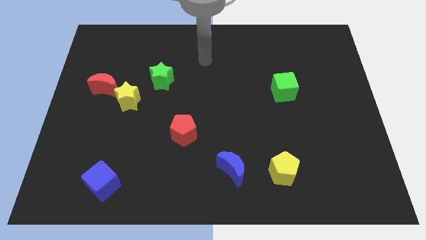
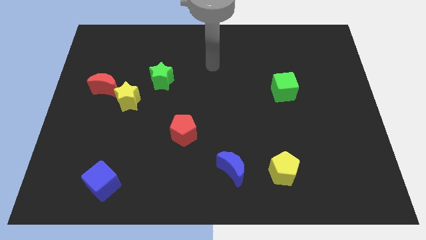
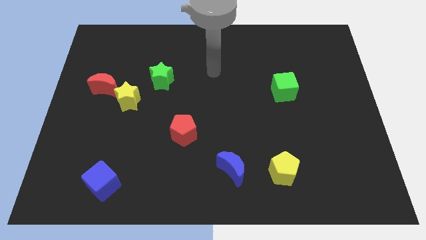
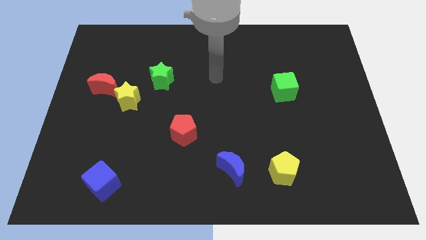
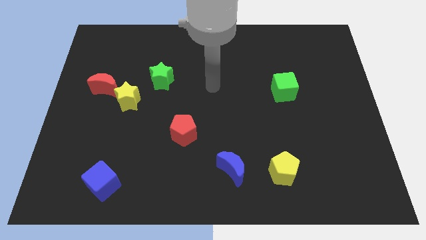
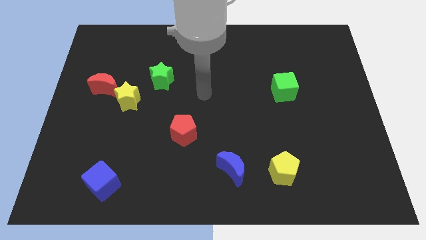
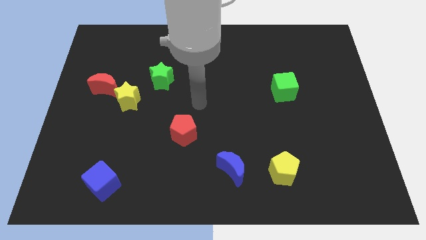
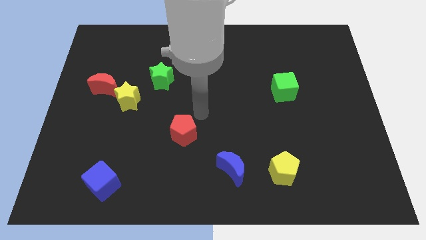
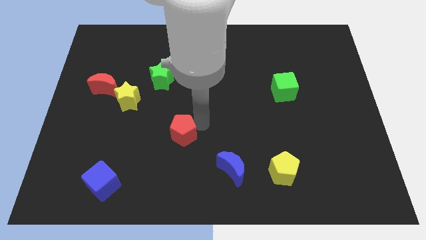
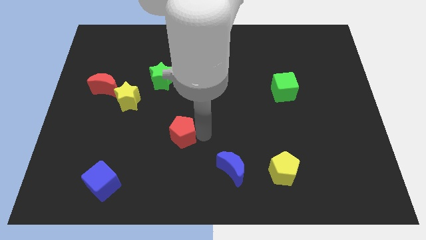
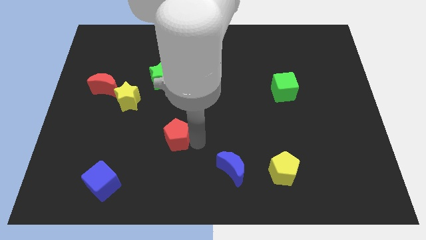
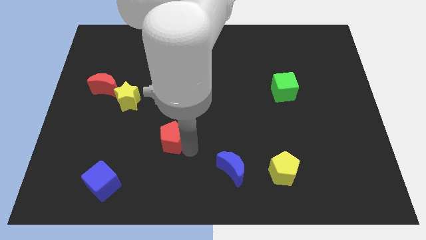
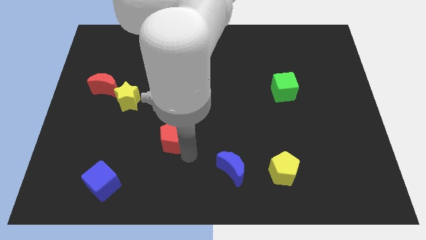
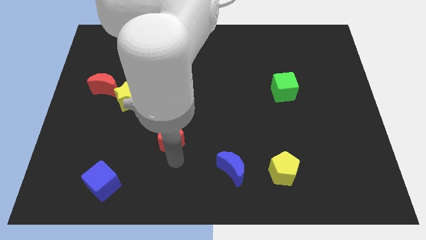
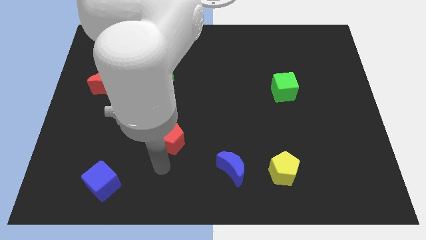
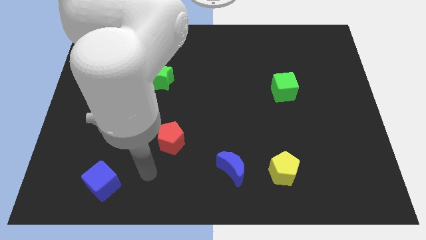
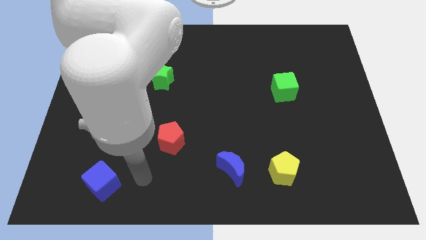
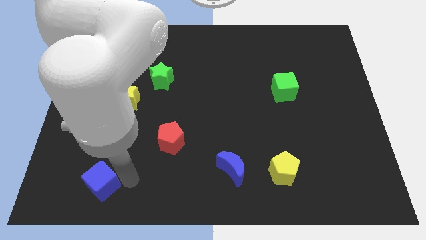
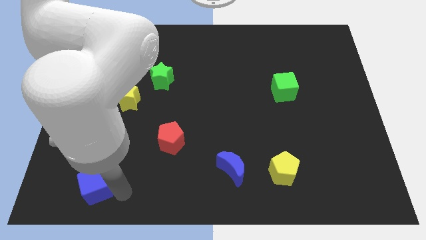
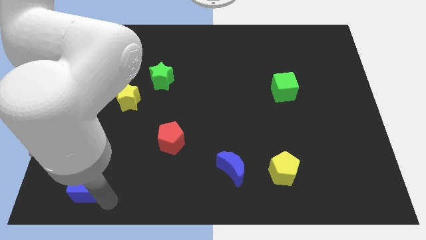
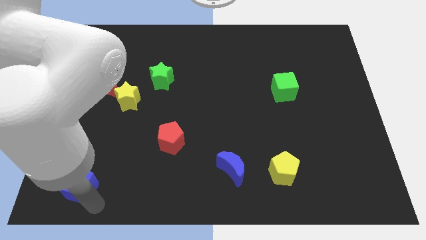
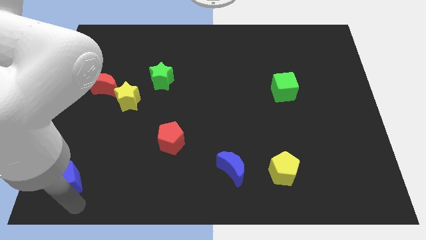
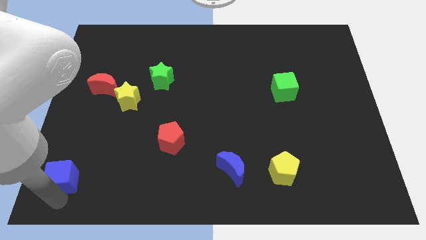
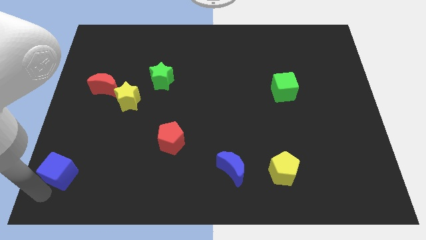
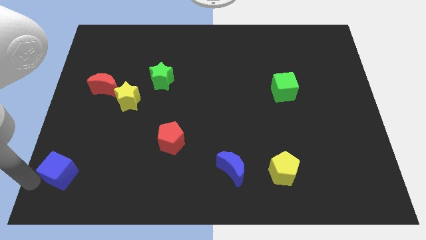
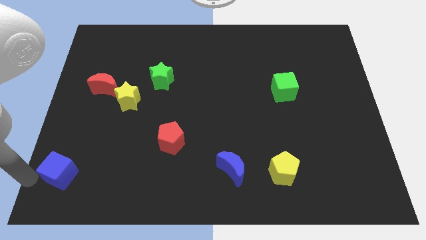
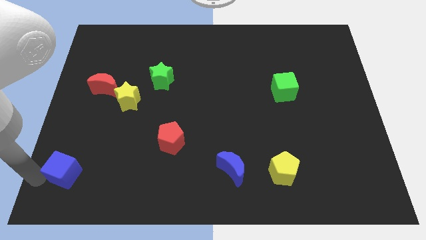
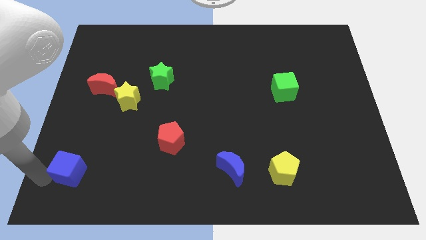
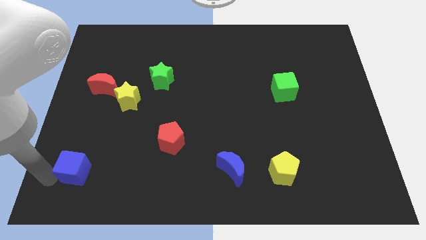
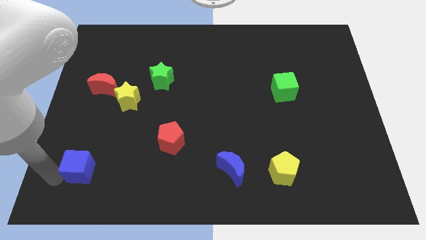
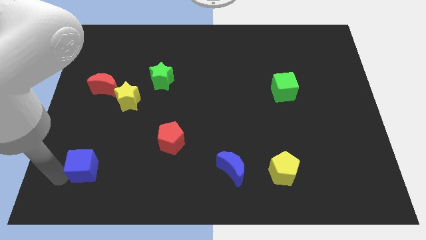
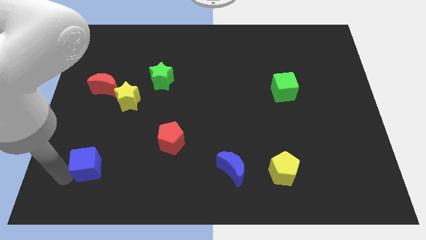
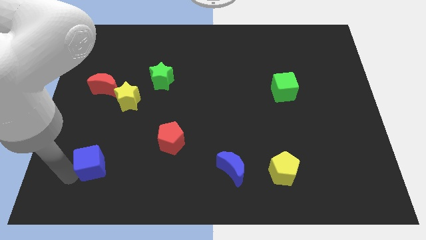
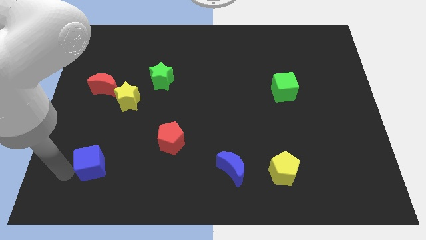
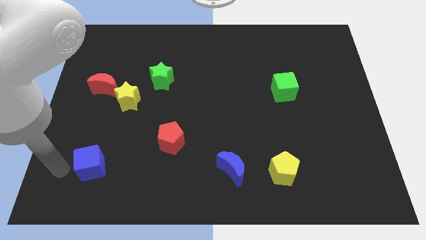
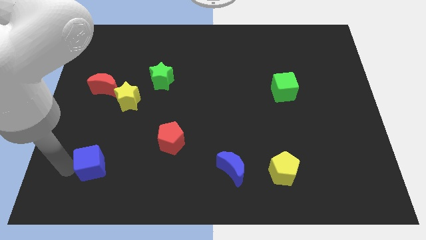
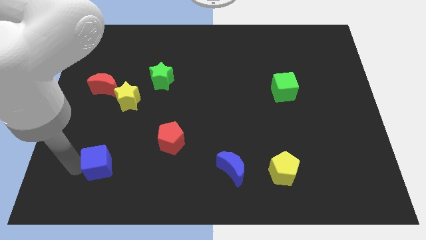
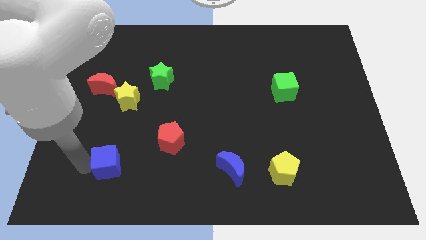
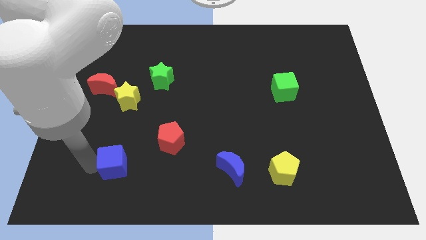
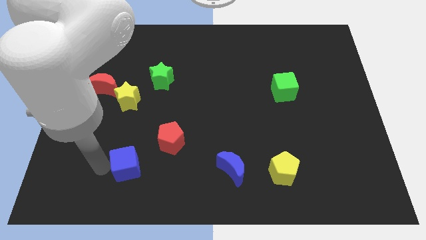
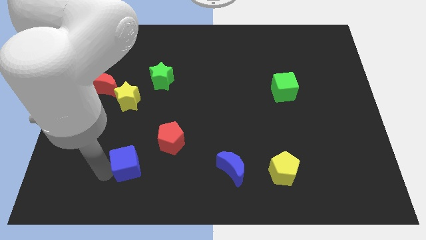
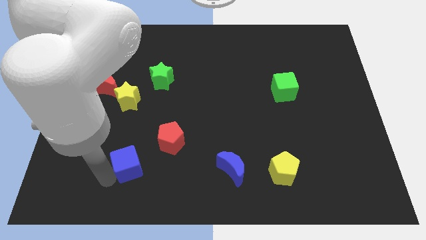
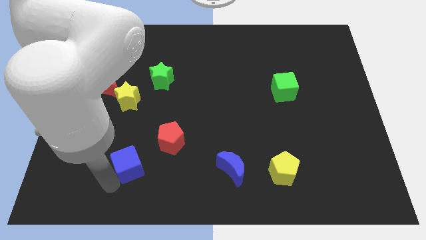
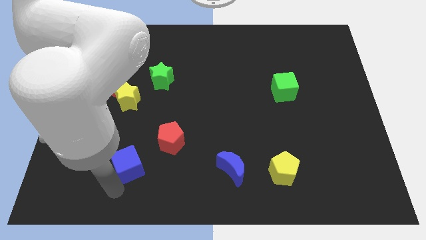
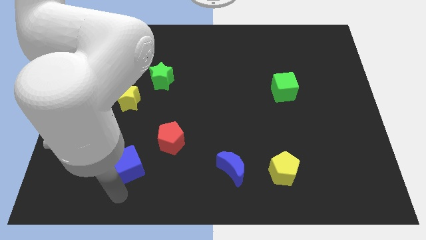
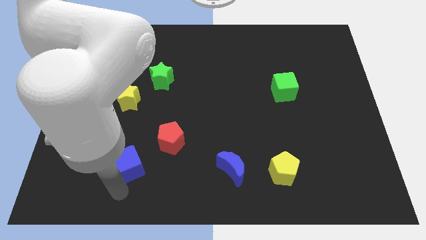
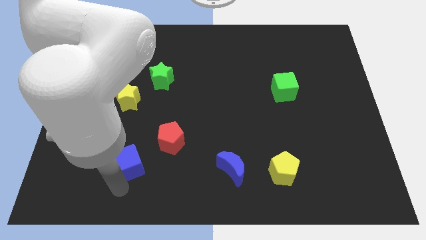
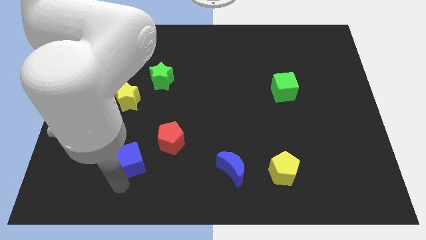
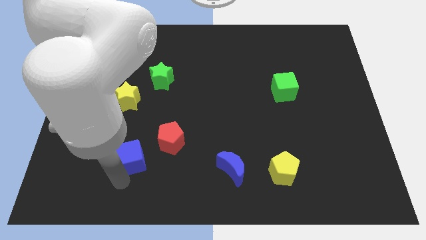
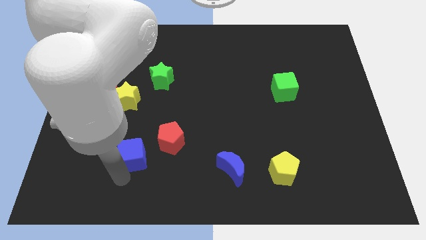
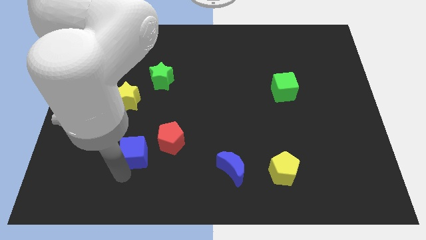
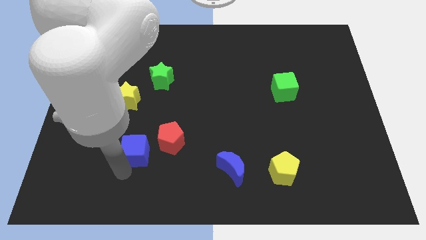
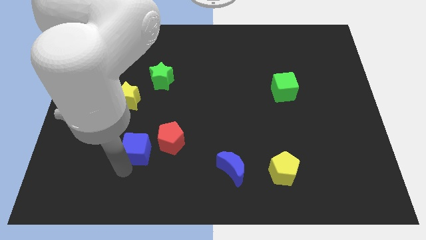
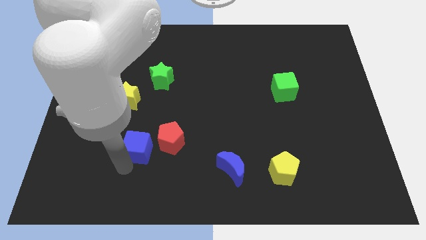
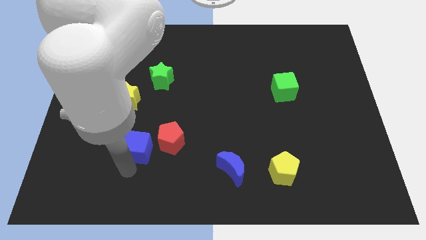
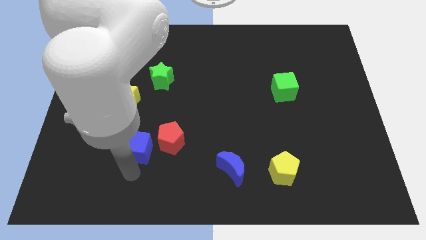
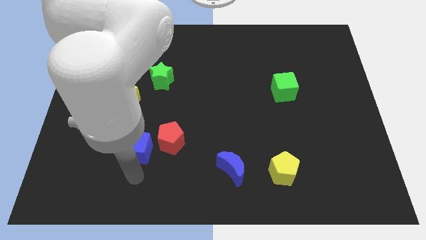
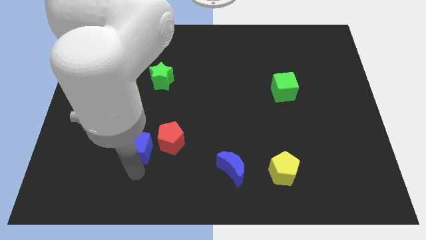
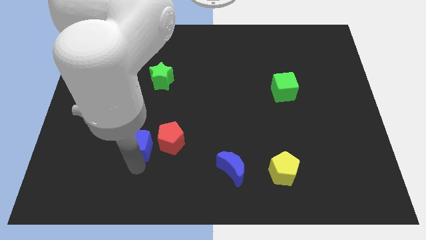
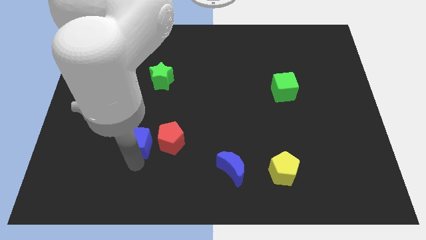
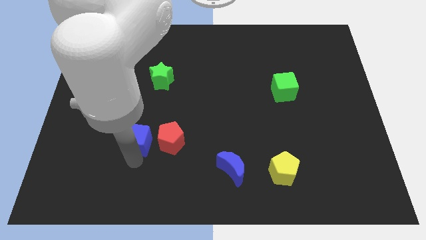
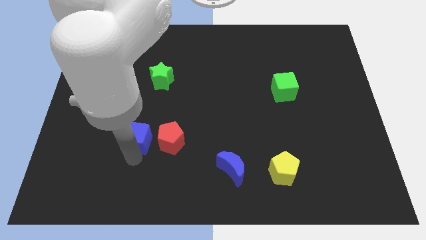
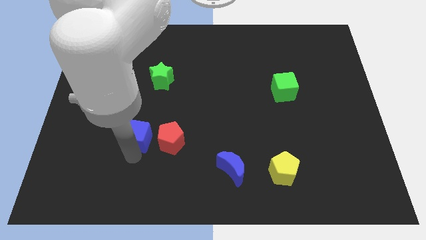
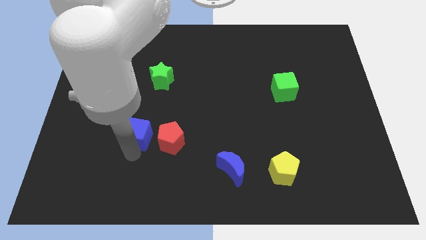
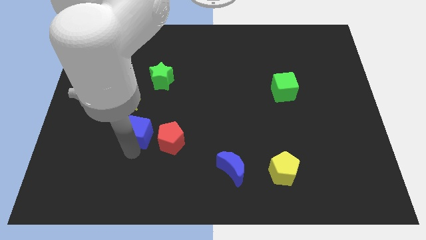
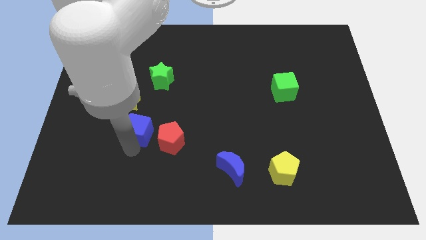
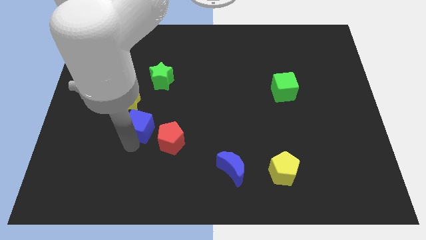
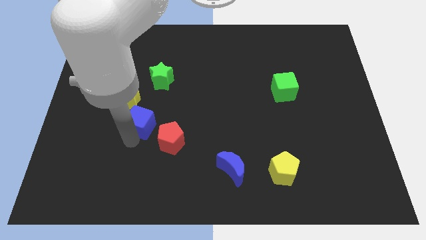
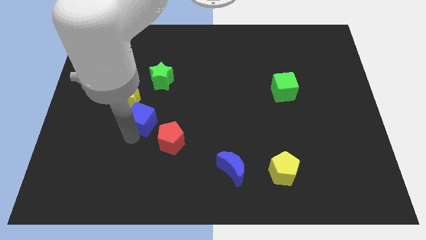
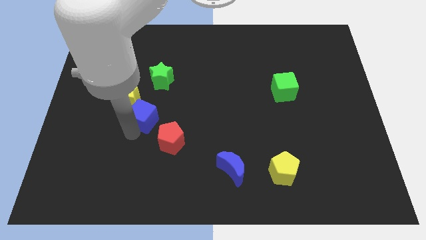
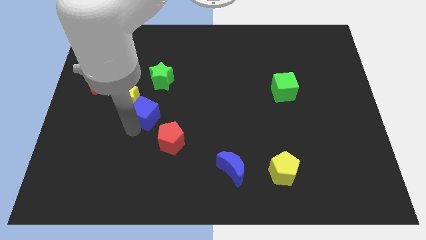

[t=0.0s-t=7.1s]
push the blue cube to the right of the yellow star

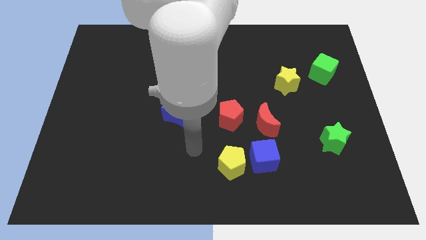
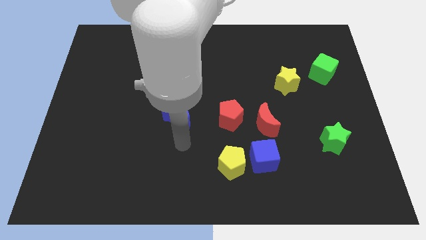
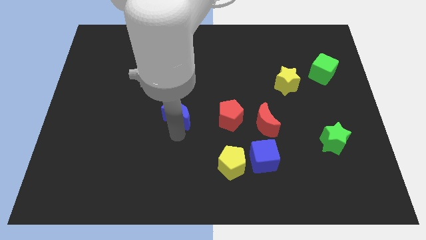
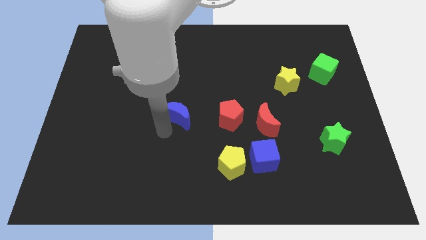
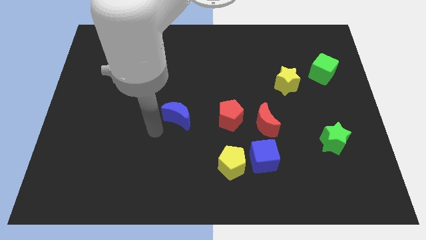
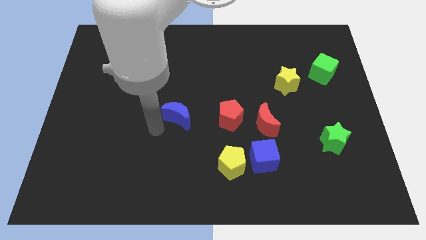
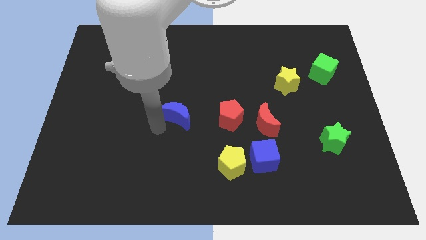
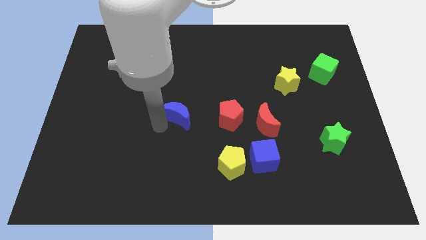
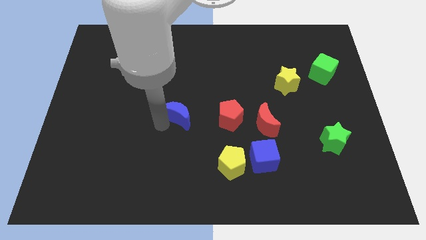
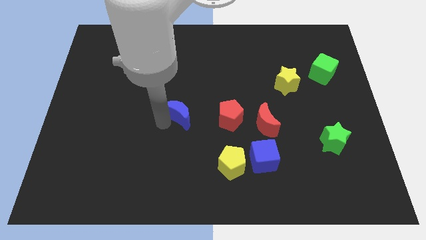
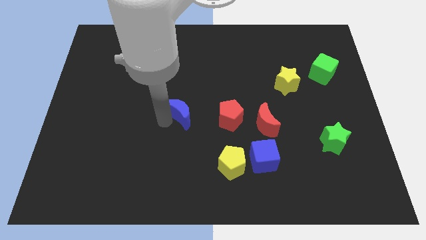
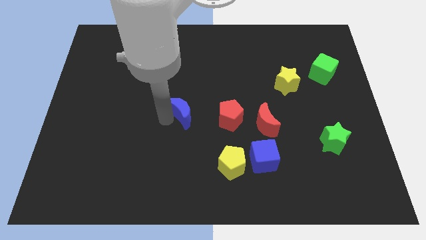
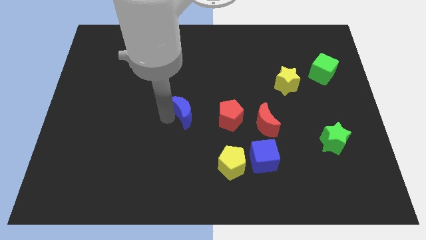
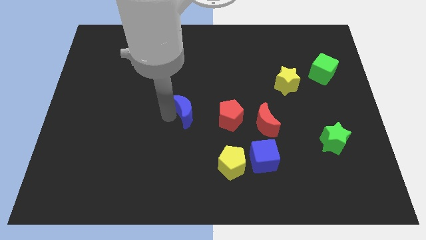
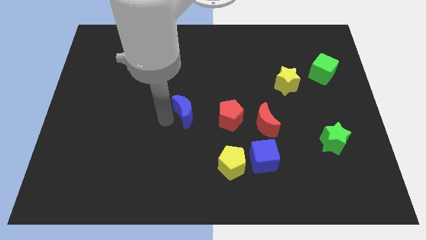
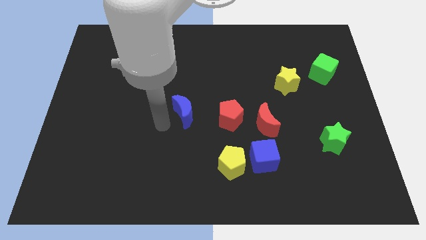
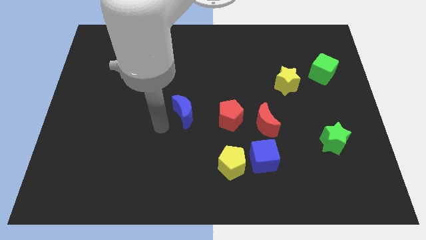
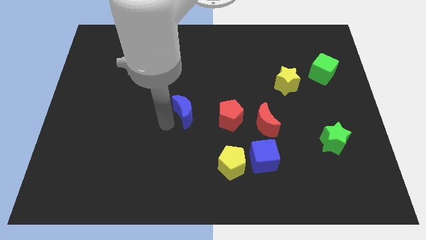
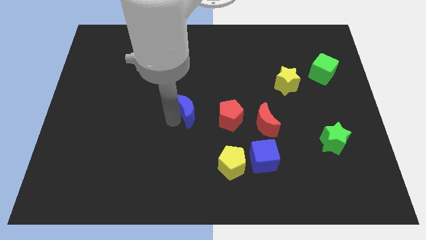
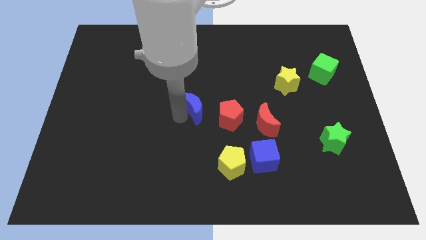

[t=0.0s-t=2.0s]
push the blue moon to the top left side of the red pentagon
